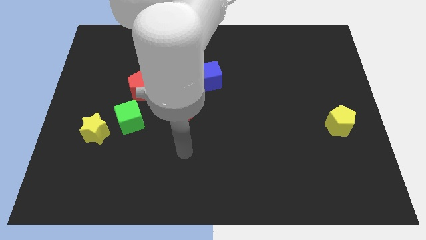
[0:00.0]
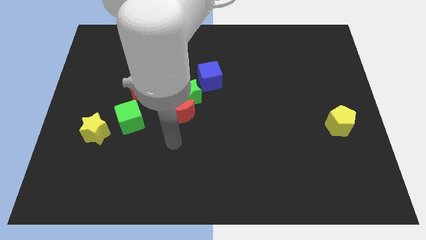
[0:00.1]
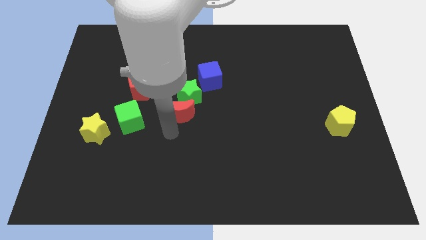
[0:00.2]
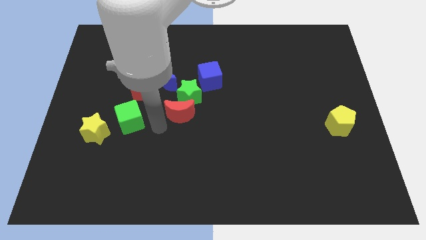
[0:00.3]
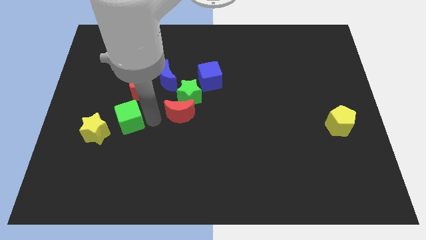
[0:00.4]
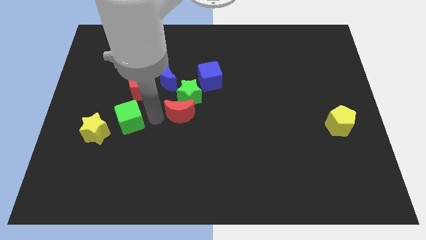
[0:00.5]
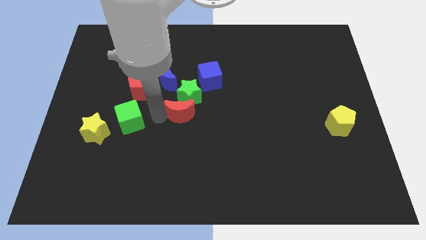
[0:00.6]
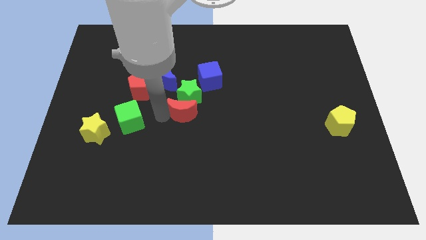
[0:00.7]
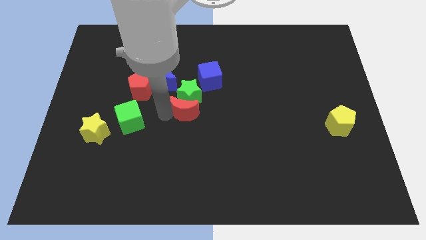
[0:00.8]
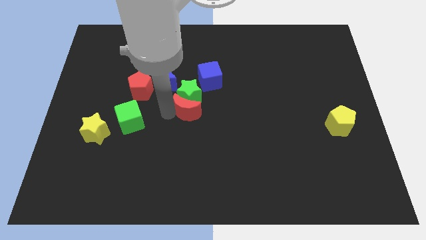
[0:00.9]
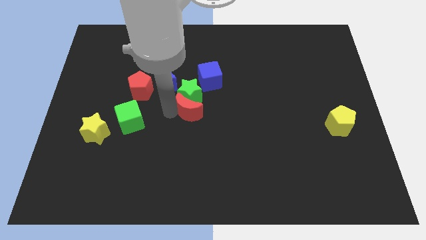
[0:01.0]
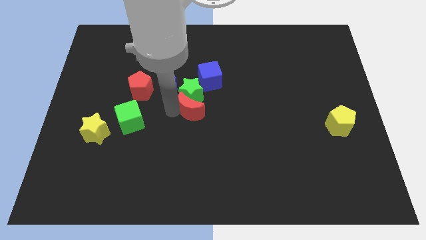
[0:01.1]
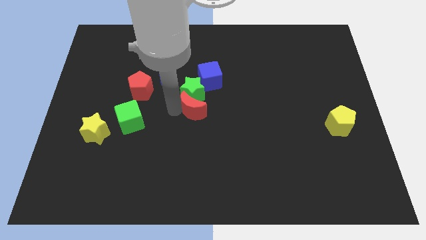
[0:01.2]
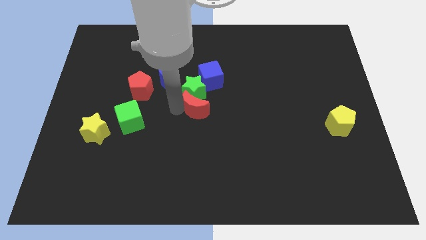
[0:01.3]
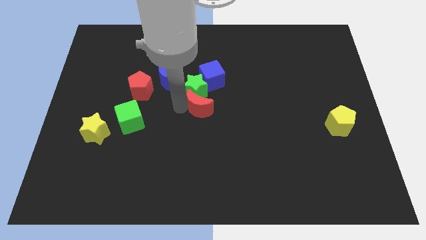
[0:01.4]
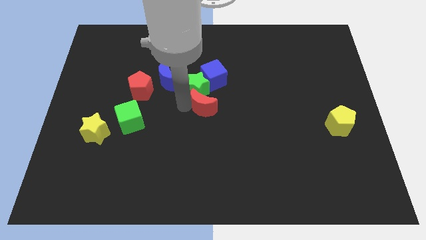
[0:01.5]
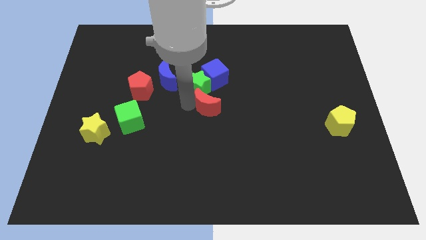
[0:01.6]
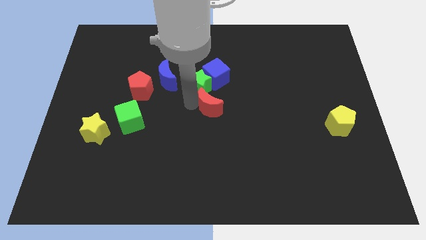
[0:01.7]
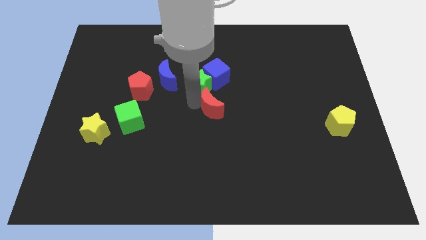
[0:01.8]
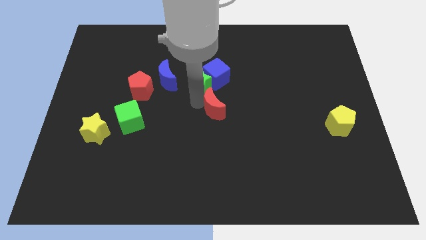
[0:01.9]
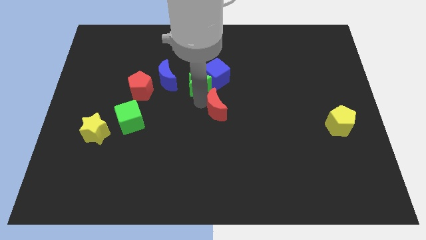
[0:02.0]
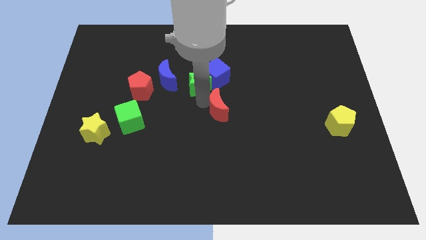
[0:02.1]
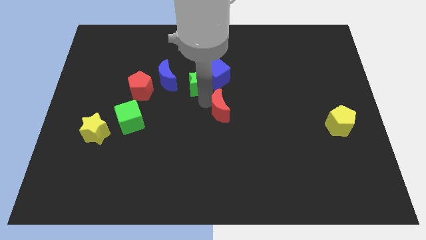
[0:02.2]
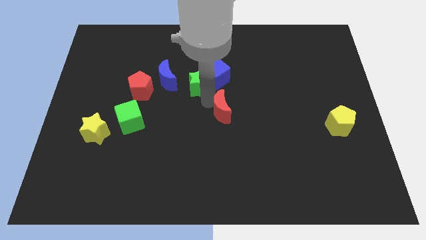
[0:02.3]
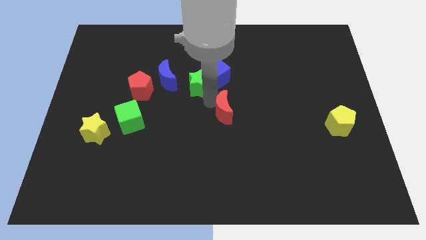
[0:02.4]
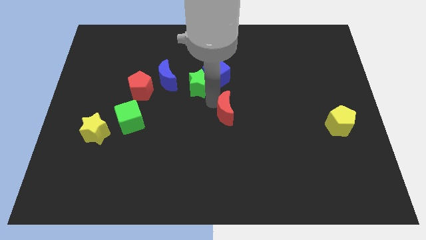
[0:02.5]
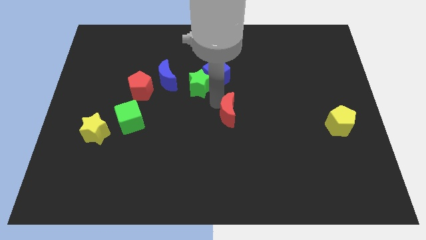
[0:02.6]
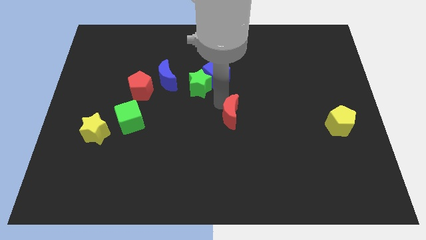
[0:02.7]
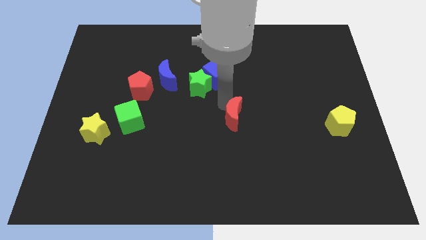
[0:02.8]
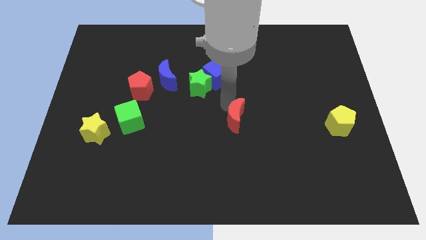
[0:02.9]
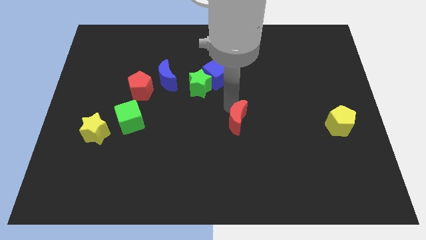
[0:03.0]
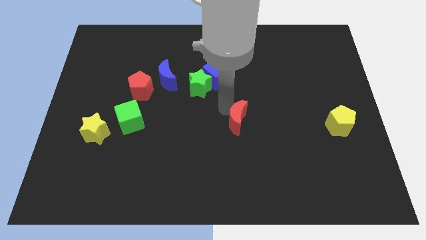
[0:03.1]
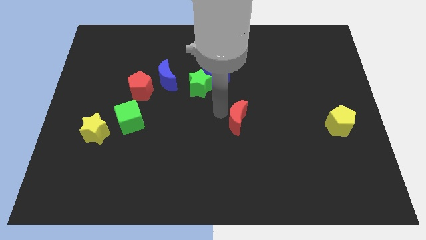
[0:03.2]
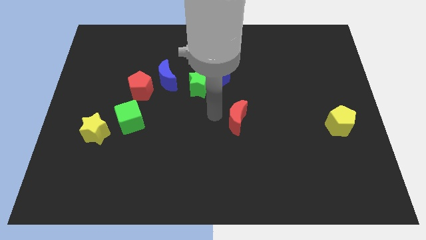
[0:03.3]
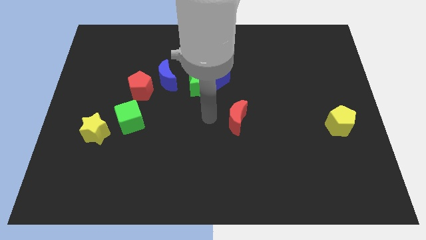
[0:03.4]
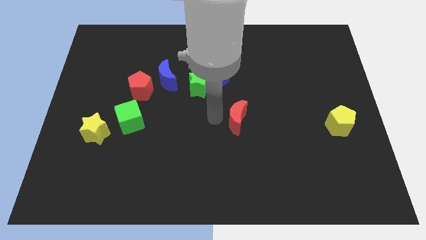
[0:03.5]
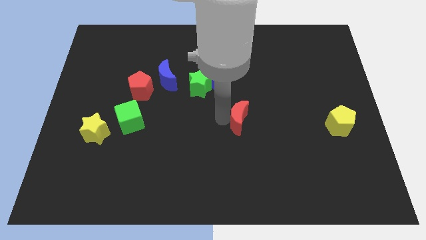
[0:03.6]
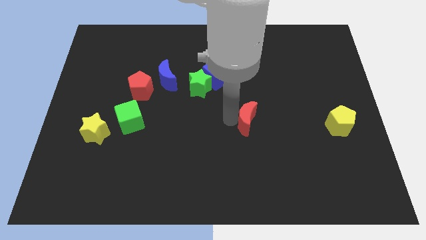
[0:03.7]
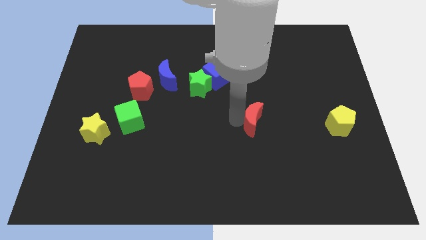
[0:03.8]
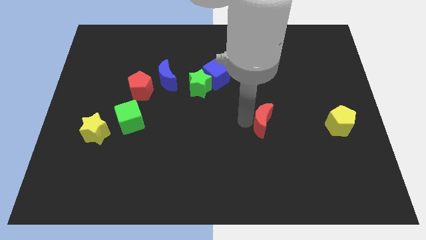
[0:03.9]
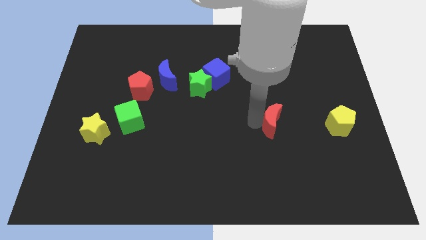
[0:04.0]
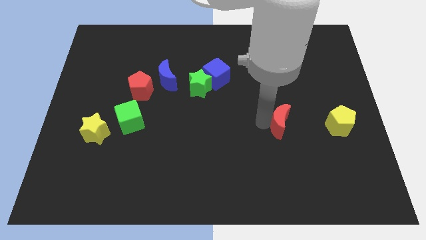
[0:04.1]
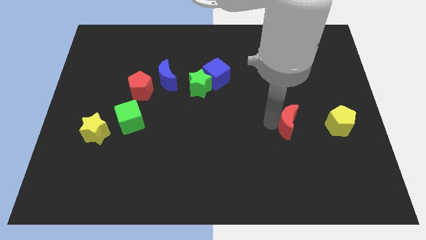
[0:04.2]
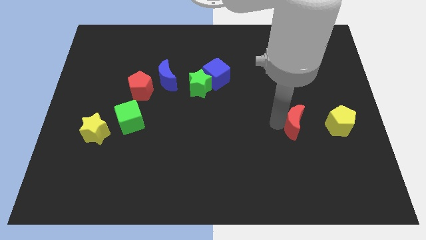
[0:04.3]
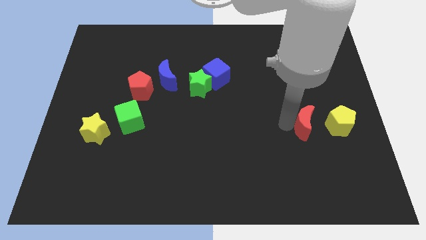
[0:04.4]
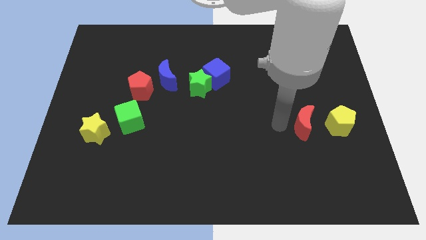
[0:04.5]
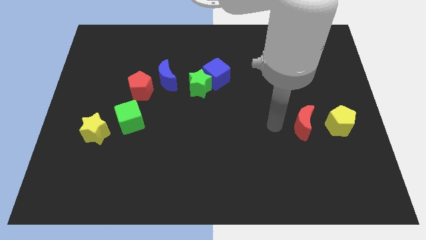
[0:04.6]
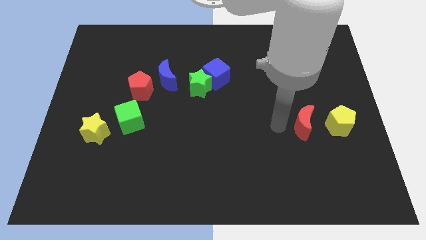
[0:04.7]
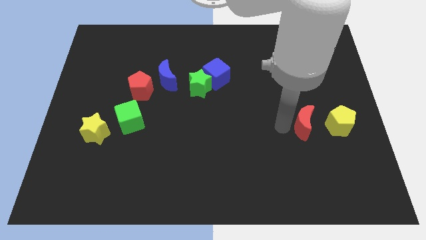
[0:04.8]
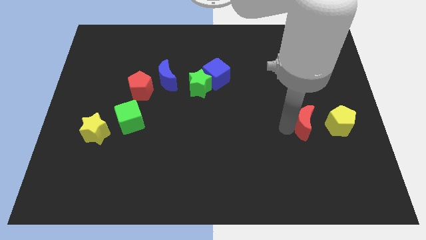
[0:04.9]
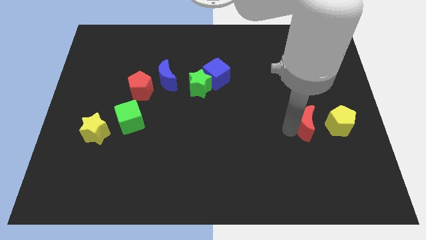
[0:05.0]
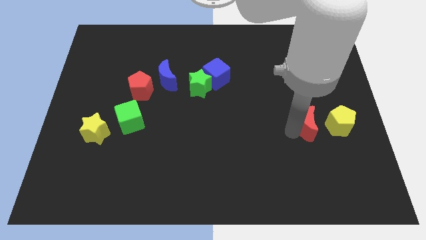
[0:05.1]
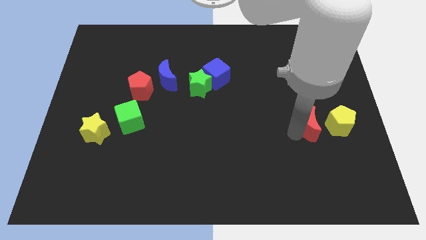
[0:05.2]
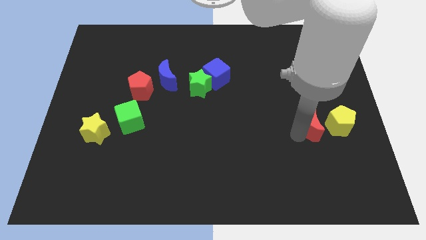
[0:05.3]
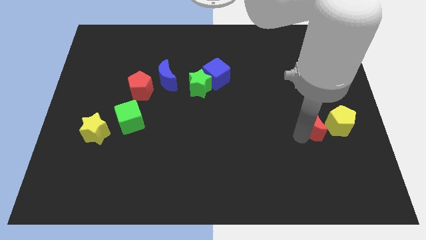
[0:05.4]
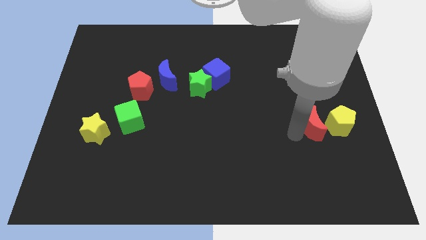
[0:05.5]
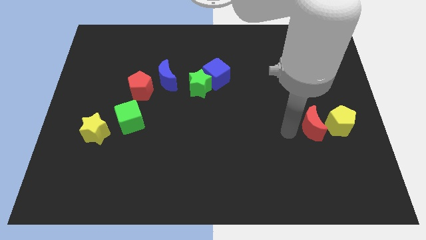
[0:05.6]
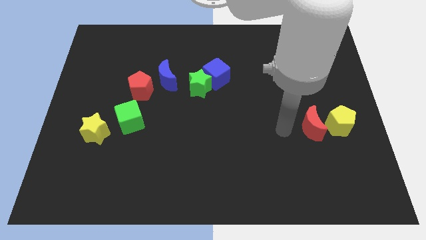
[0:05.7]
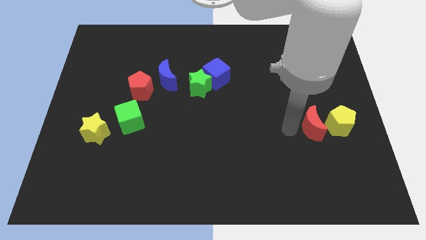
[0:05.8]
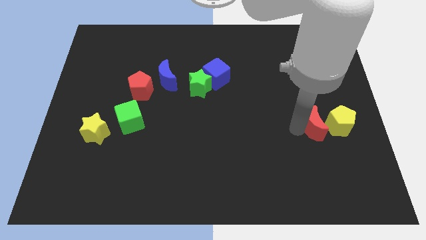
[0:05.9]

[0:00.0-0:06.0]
push the red moon close to the yellow pentagon

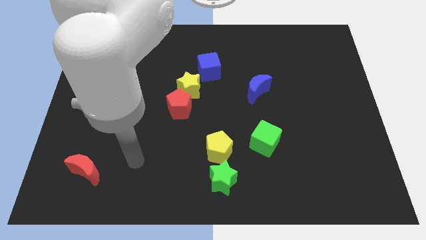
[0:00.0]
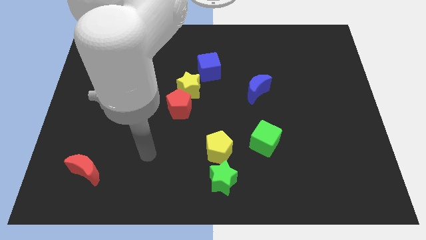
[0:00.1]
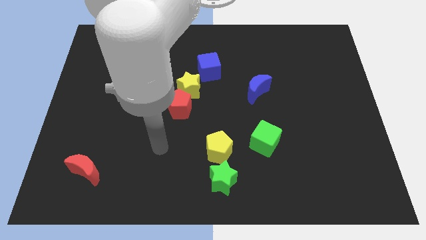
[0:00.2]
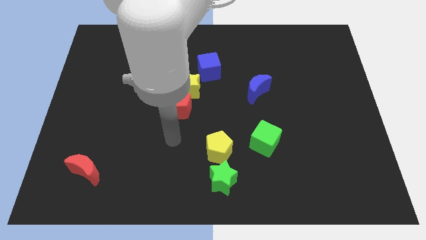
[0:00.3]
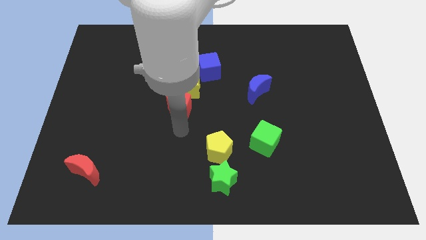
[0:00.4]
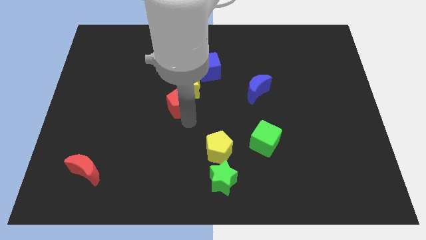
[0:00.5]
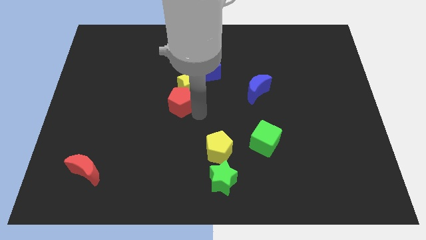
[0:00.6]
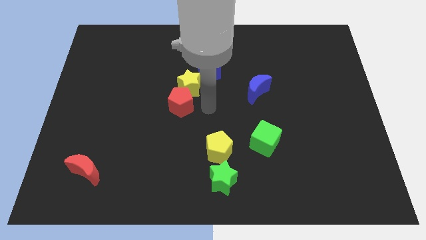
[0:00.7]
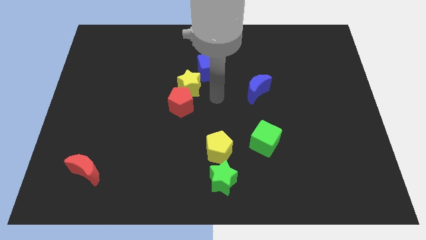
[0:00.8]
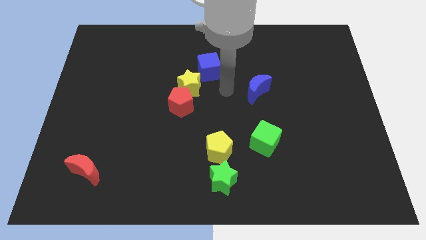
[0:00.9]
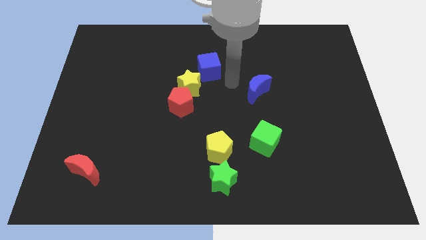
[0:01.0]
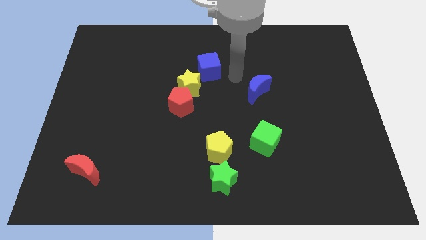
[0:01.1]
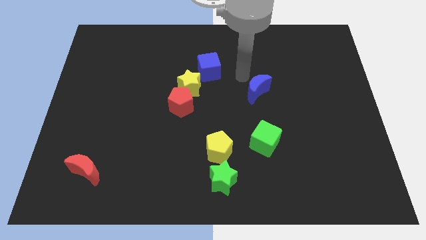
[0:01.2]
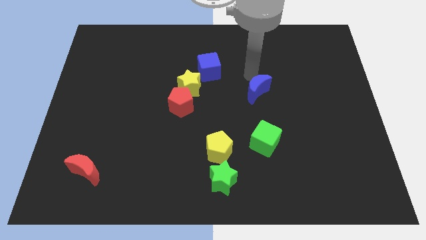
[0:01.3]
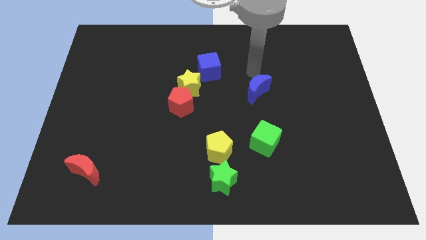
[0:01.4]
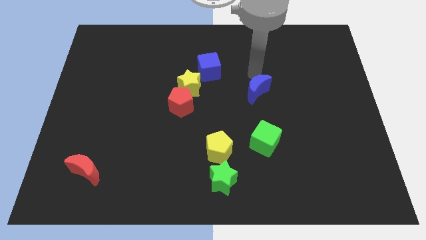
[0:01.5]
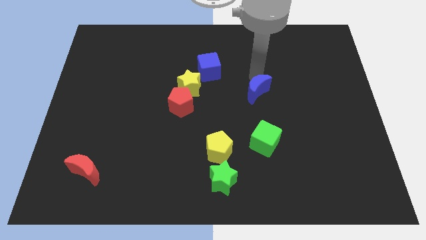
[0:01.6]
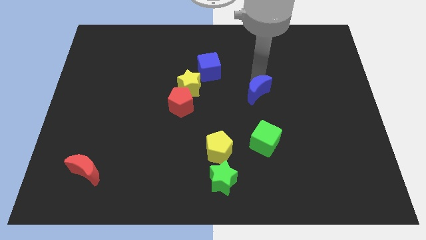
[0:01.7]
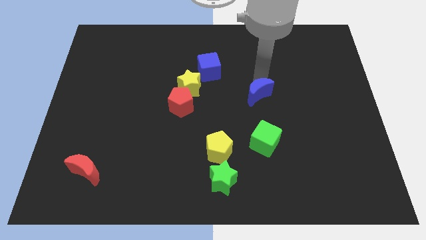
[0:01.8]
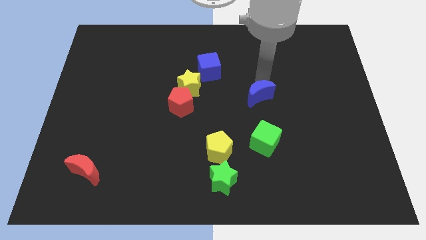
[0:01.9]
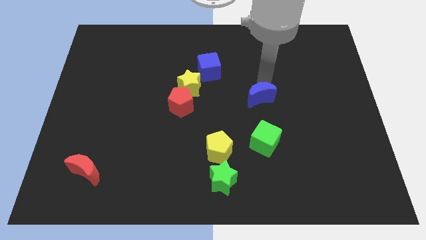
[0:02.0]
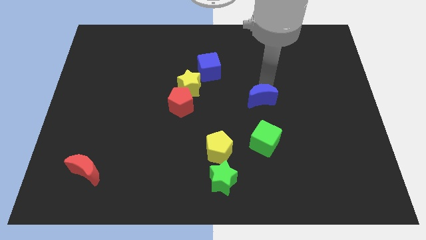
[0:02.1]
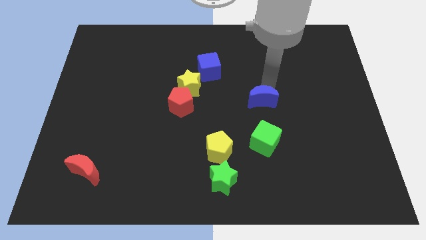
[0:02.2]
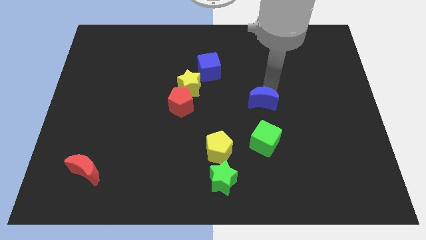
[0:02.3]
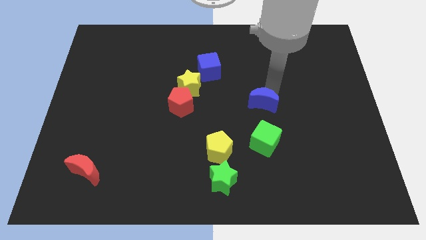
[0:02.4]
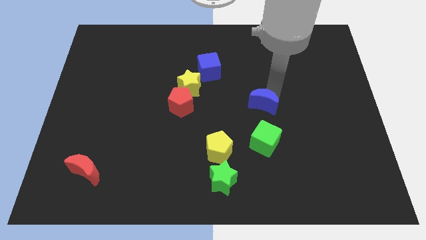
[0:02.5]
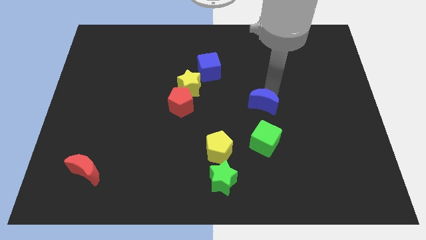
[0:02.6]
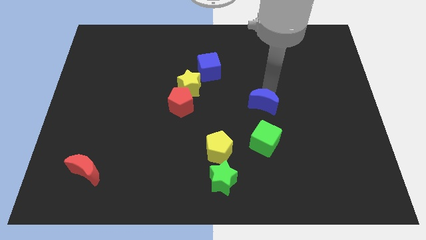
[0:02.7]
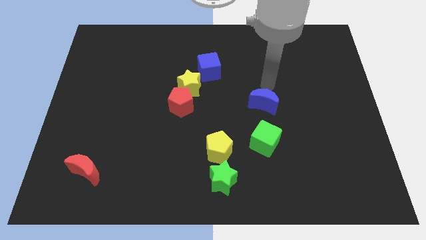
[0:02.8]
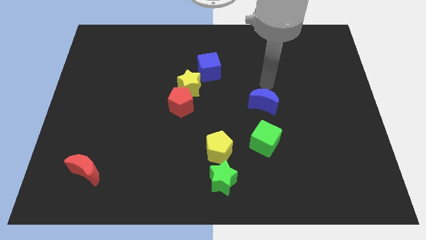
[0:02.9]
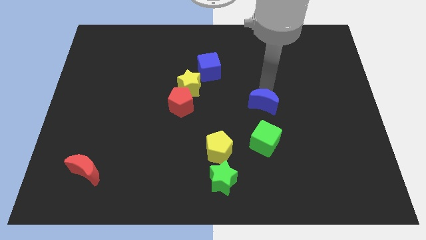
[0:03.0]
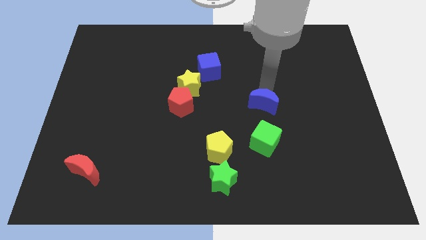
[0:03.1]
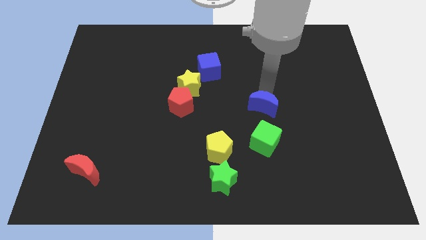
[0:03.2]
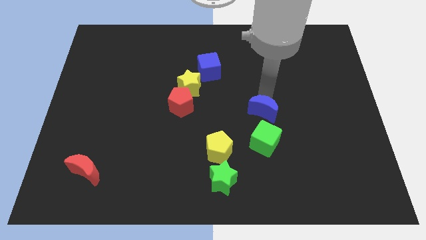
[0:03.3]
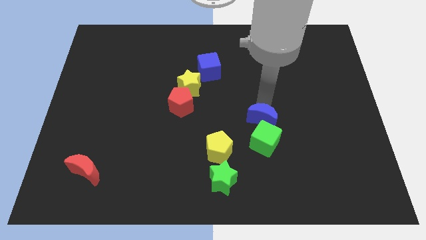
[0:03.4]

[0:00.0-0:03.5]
move the blue moon next to the green cube
